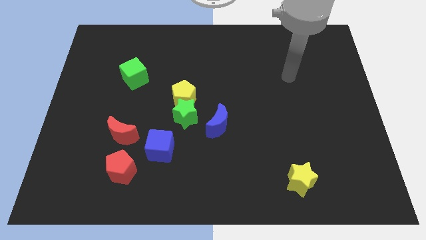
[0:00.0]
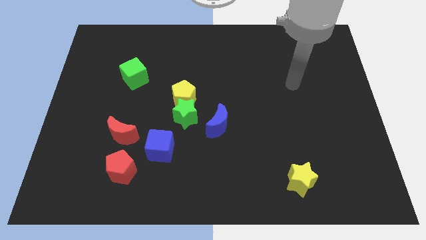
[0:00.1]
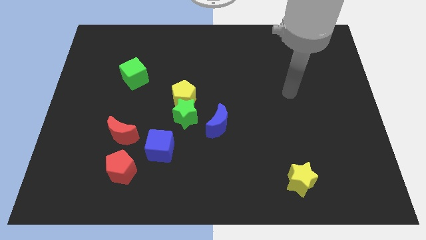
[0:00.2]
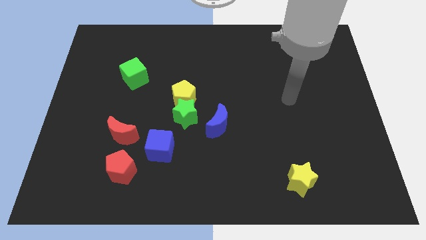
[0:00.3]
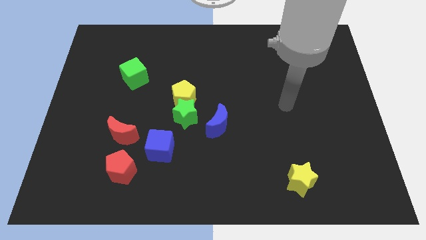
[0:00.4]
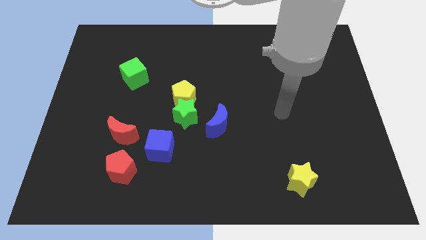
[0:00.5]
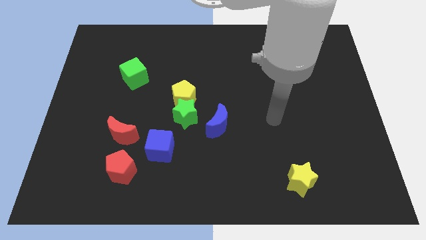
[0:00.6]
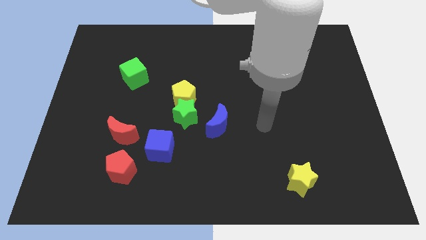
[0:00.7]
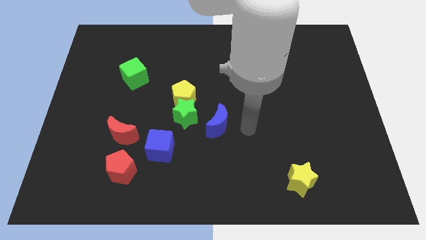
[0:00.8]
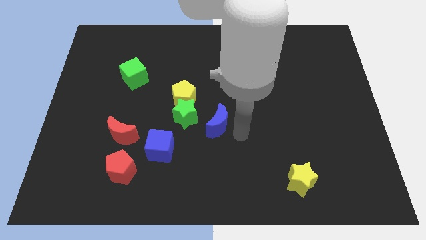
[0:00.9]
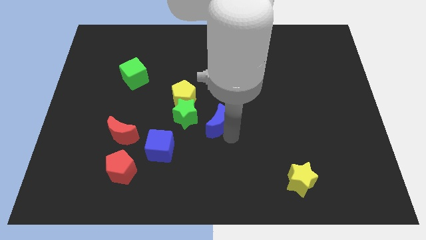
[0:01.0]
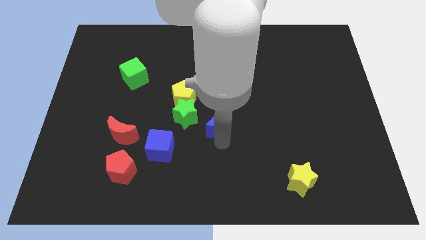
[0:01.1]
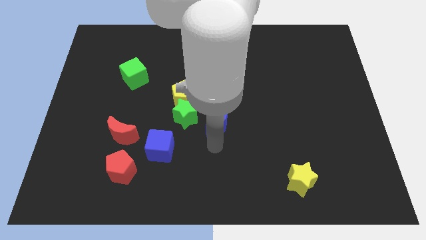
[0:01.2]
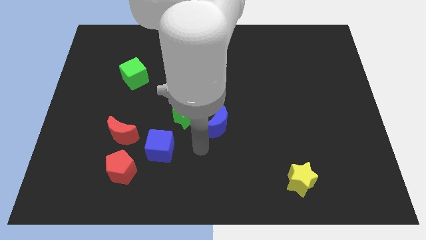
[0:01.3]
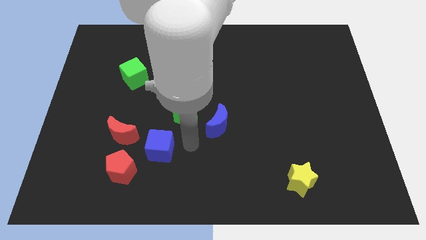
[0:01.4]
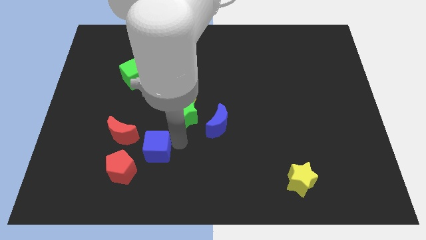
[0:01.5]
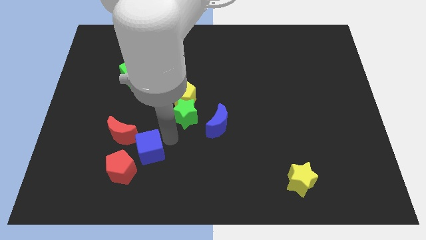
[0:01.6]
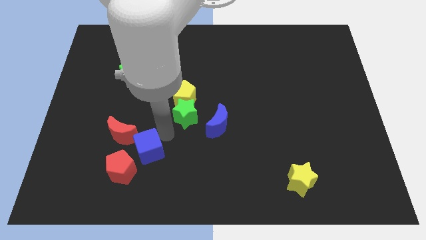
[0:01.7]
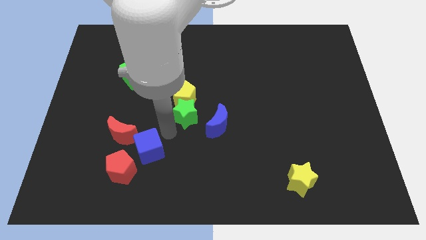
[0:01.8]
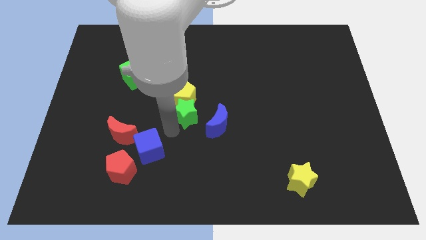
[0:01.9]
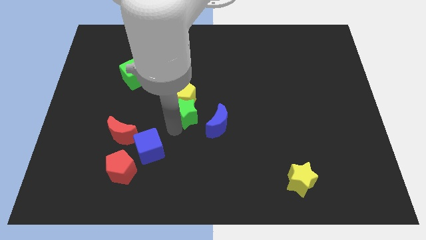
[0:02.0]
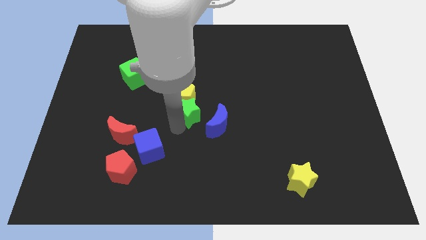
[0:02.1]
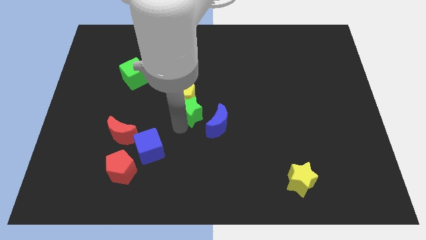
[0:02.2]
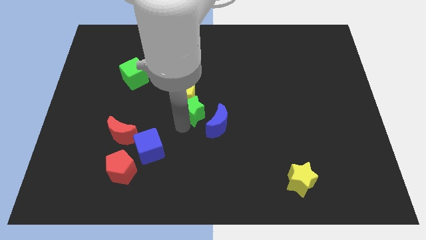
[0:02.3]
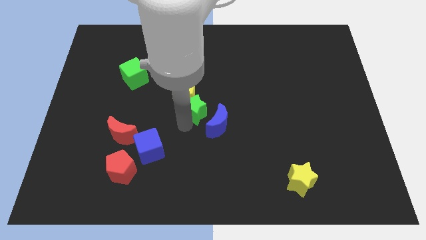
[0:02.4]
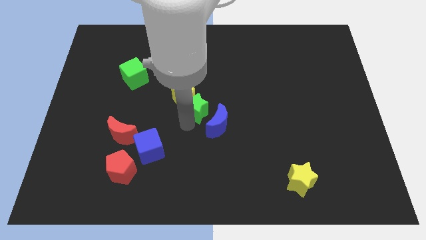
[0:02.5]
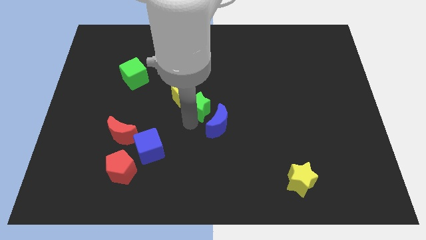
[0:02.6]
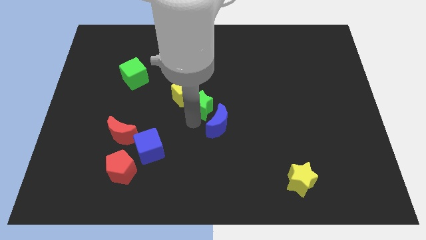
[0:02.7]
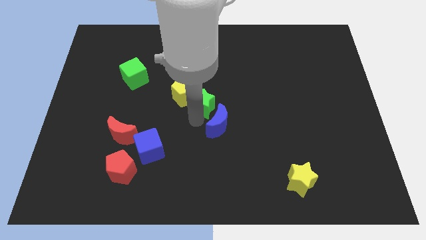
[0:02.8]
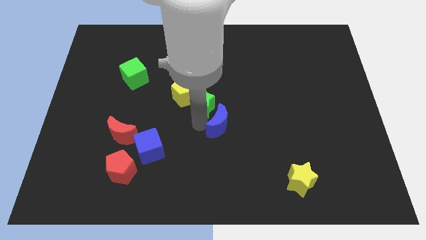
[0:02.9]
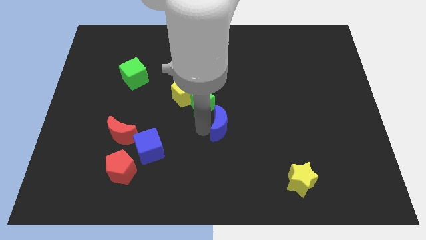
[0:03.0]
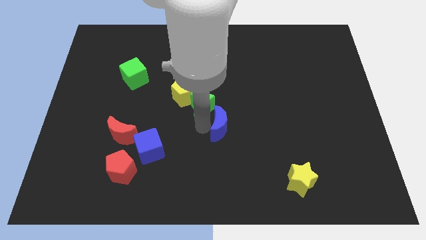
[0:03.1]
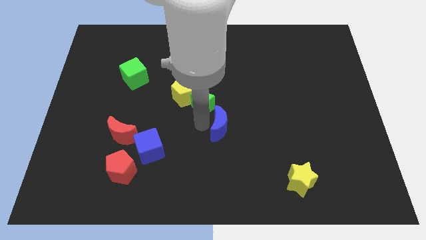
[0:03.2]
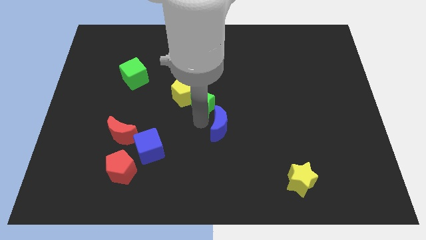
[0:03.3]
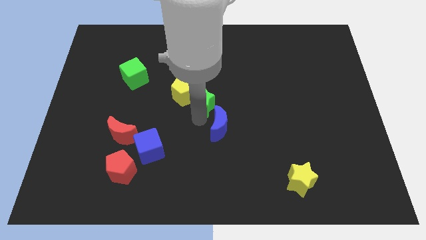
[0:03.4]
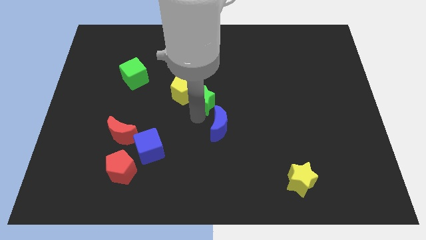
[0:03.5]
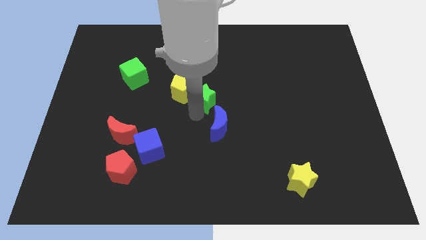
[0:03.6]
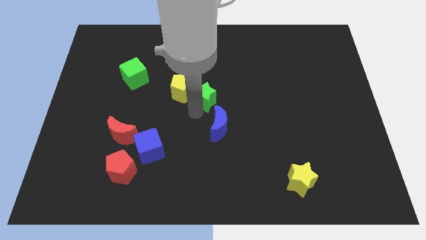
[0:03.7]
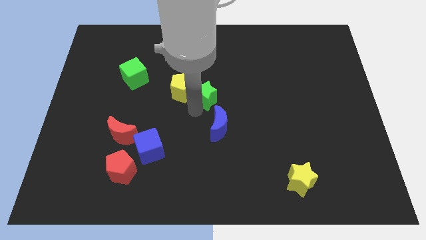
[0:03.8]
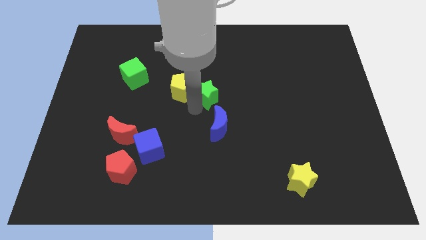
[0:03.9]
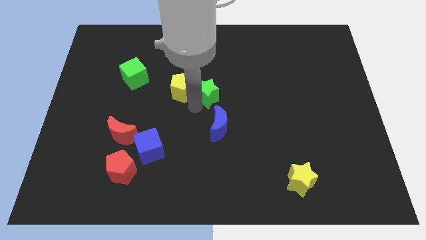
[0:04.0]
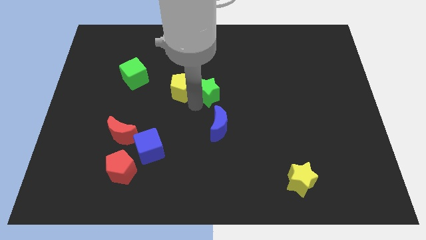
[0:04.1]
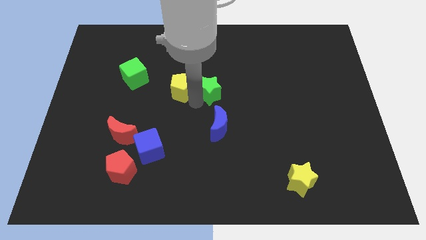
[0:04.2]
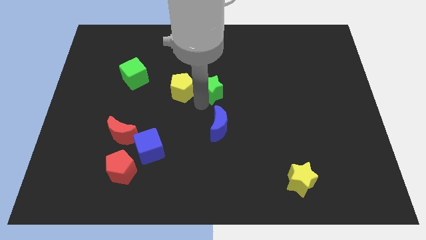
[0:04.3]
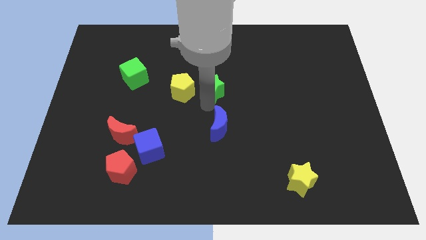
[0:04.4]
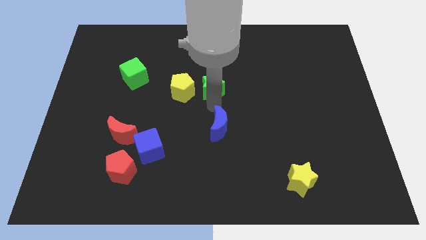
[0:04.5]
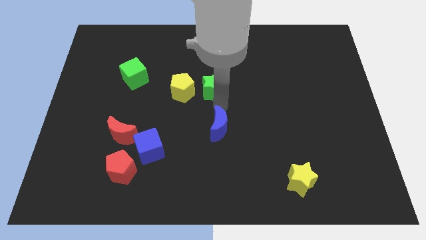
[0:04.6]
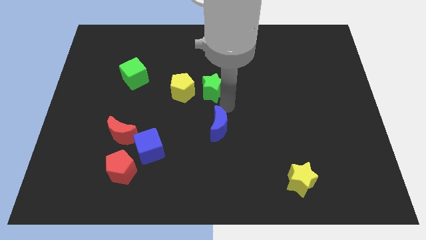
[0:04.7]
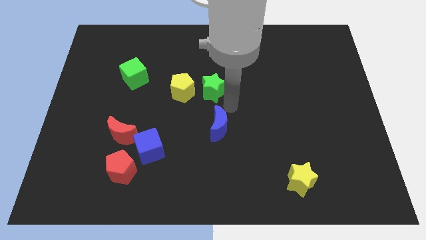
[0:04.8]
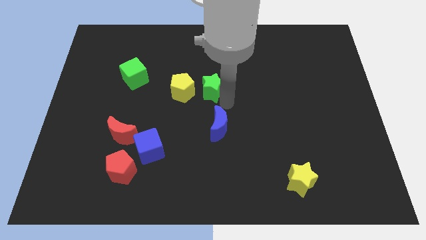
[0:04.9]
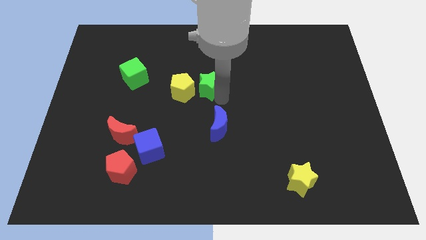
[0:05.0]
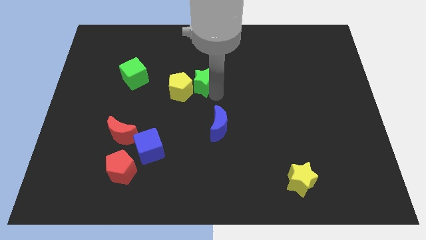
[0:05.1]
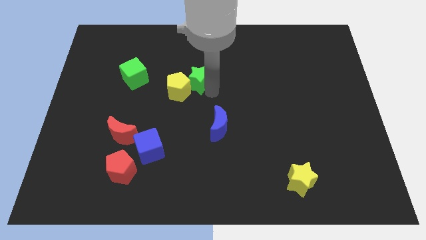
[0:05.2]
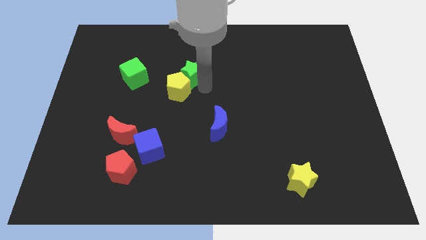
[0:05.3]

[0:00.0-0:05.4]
slide the green star above the yellow pentagon

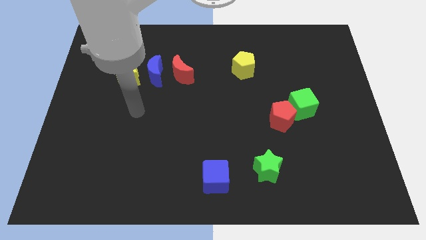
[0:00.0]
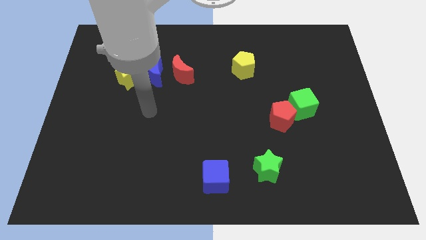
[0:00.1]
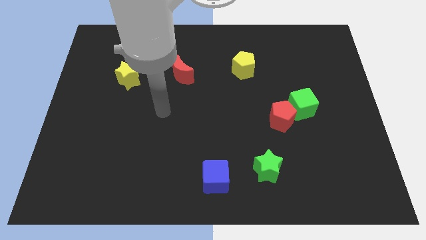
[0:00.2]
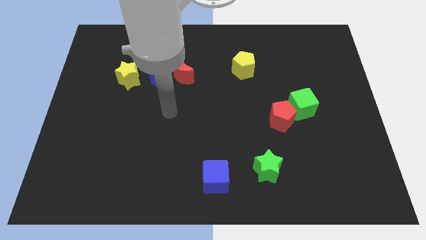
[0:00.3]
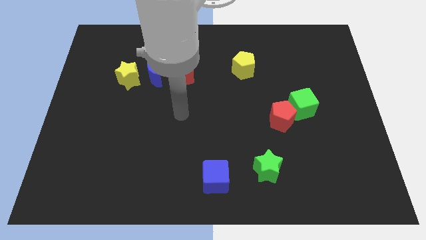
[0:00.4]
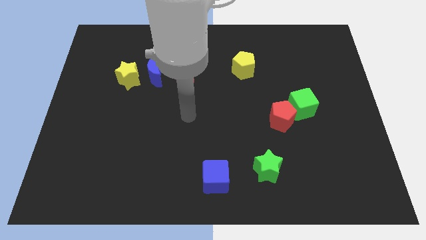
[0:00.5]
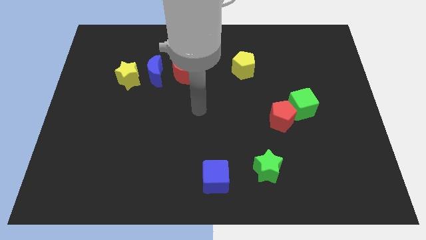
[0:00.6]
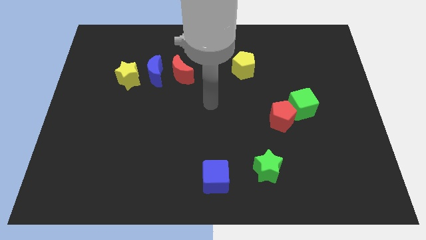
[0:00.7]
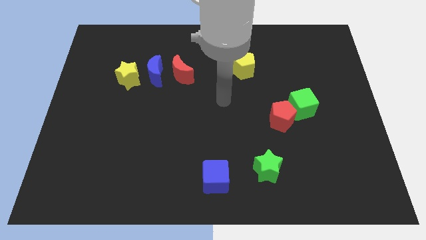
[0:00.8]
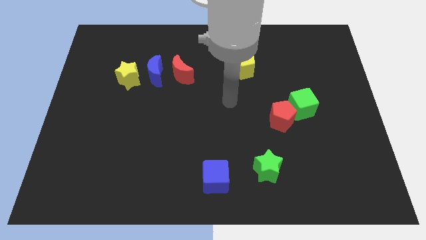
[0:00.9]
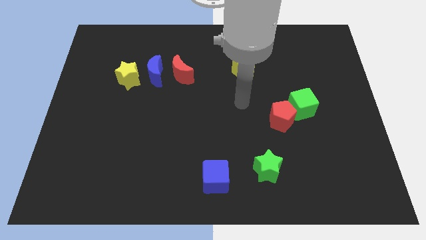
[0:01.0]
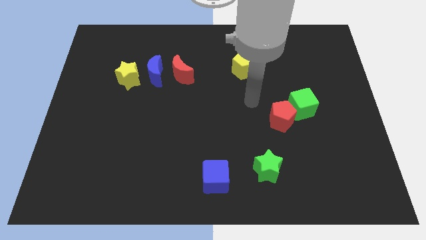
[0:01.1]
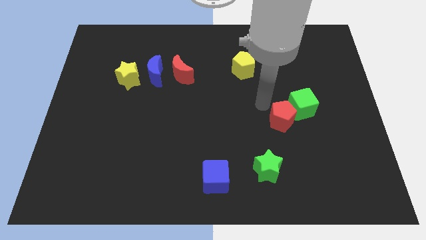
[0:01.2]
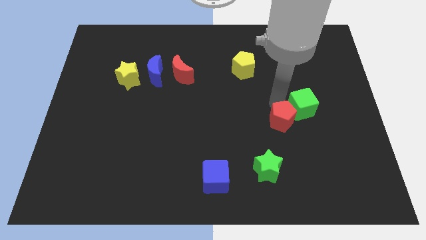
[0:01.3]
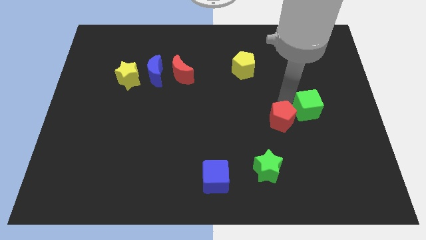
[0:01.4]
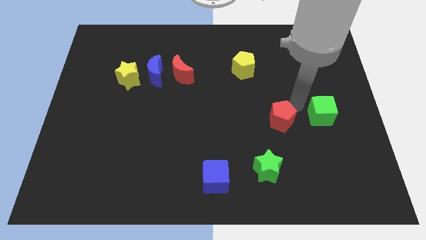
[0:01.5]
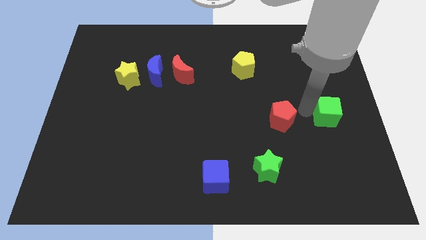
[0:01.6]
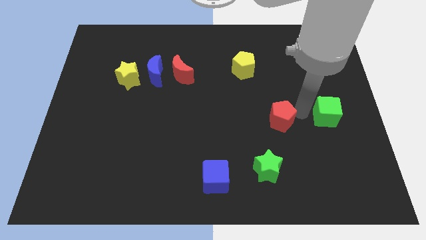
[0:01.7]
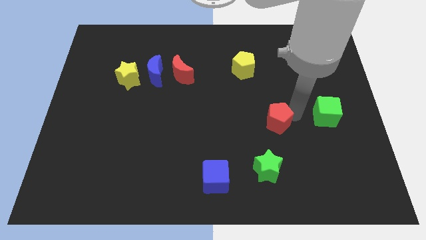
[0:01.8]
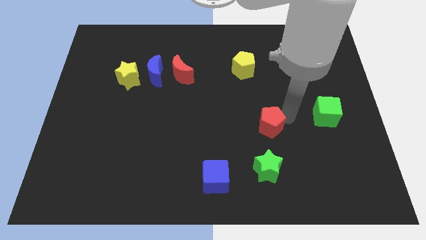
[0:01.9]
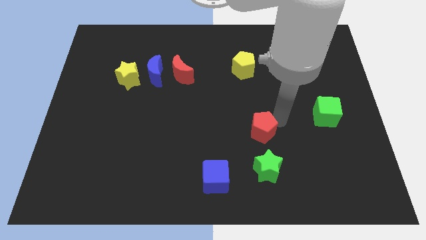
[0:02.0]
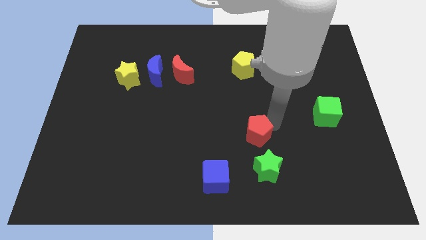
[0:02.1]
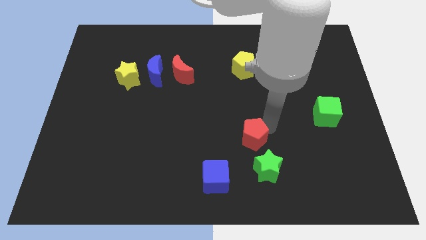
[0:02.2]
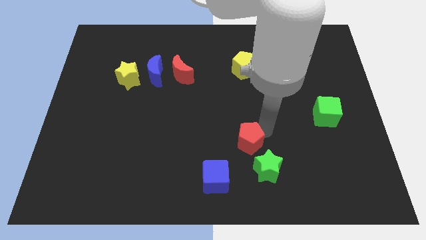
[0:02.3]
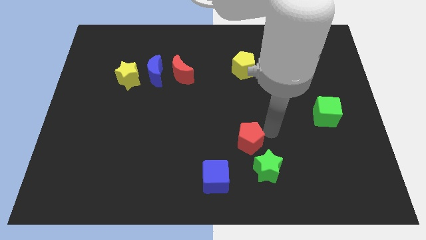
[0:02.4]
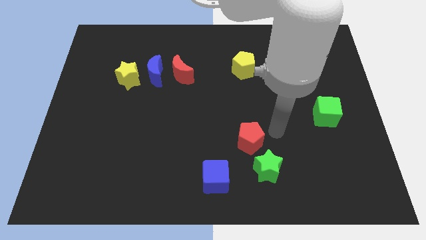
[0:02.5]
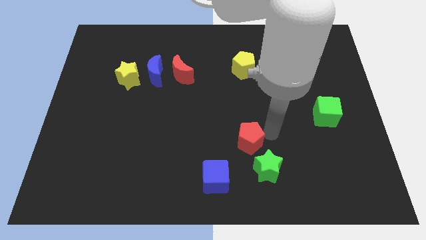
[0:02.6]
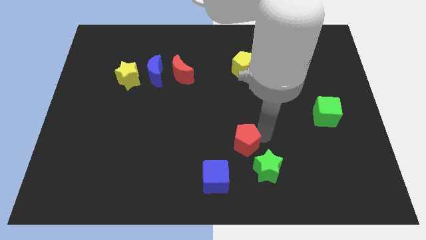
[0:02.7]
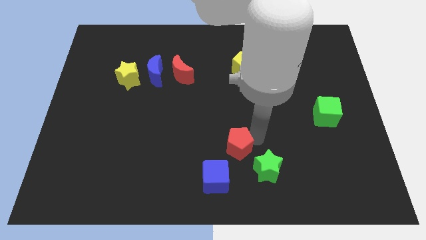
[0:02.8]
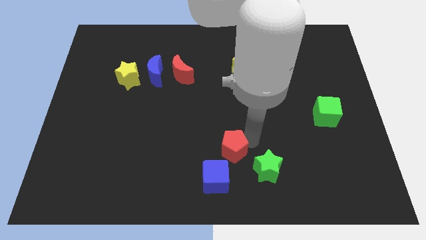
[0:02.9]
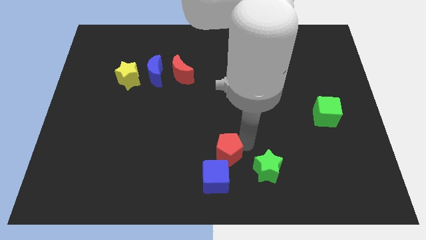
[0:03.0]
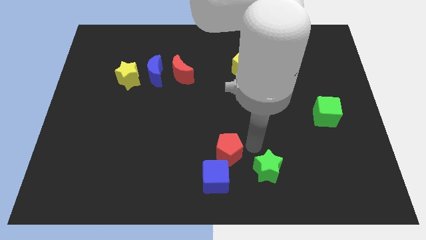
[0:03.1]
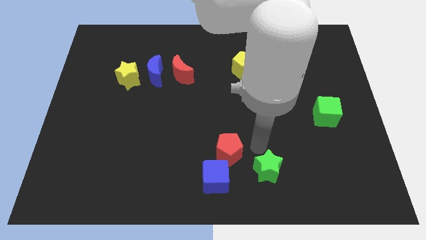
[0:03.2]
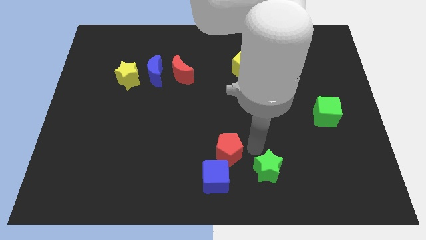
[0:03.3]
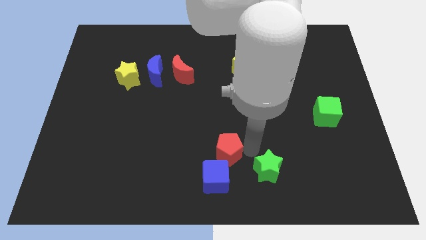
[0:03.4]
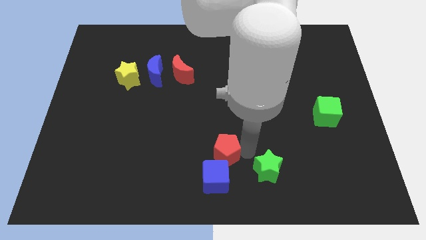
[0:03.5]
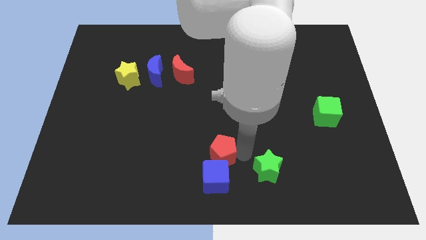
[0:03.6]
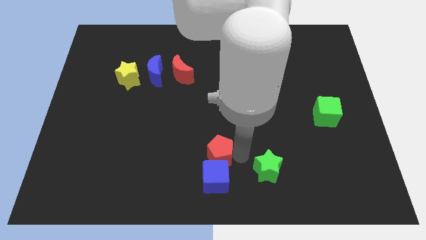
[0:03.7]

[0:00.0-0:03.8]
slide the red pentagon to the top left side of the blue cube
